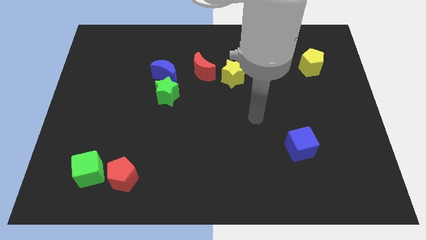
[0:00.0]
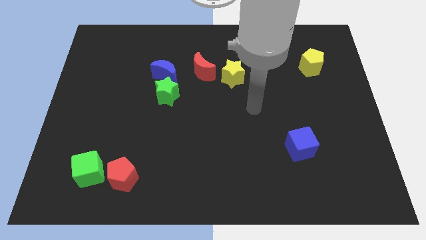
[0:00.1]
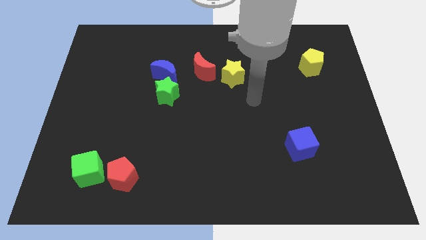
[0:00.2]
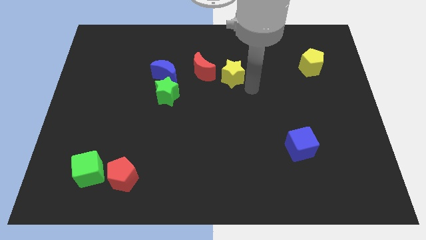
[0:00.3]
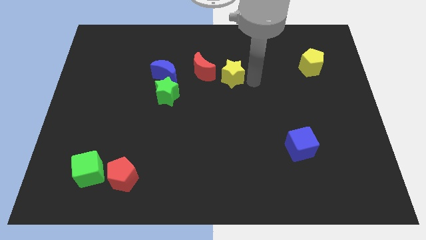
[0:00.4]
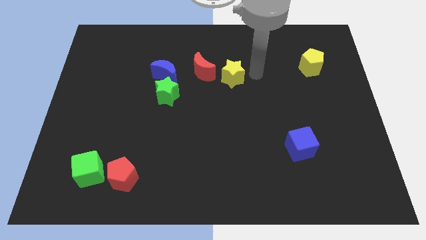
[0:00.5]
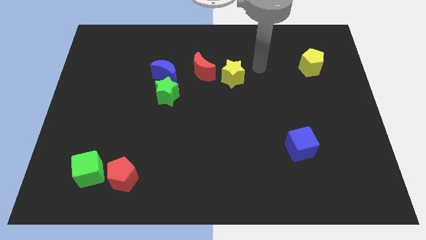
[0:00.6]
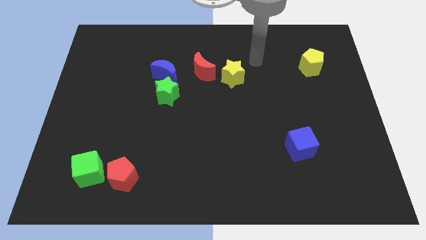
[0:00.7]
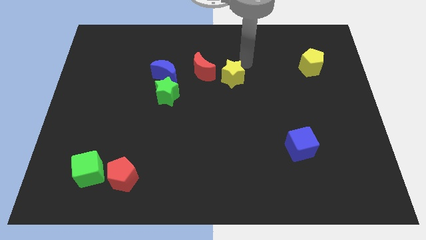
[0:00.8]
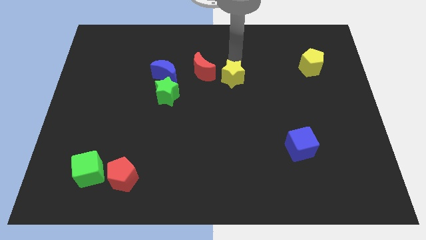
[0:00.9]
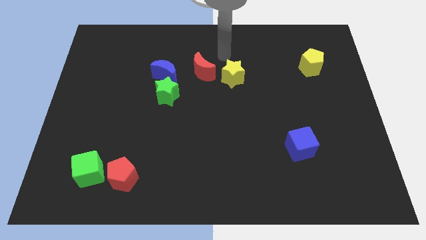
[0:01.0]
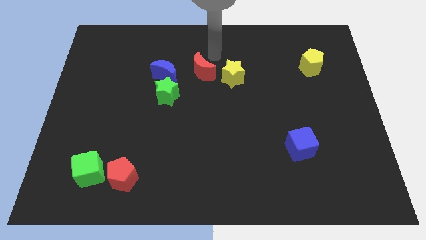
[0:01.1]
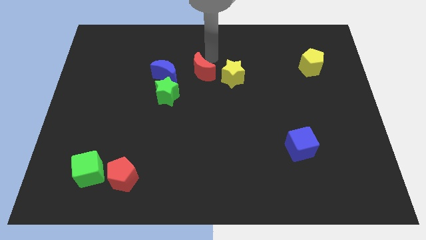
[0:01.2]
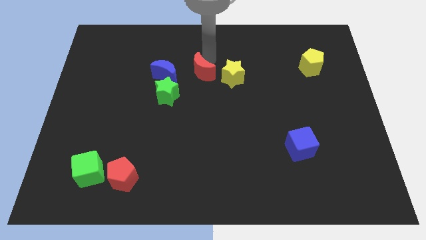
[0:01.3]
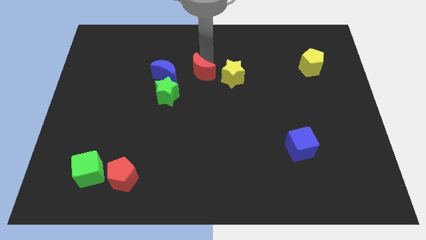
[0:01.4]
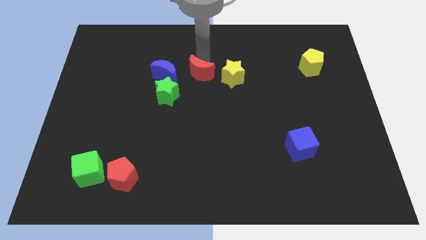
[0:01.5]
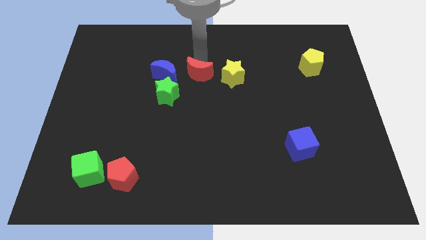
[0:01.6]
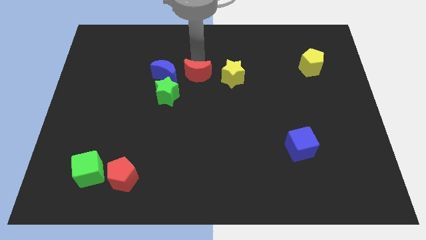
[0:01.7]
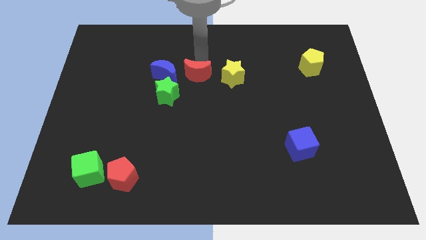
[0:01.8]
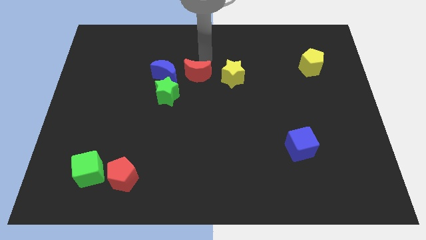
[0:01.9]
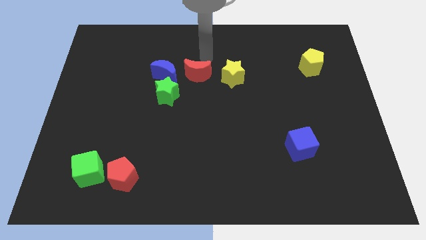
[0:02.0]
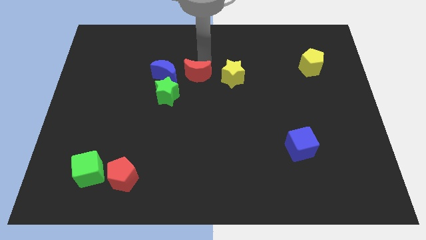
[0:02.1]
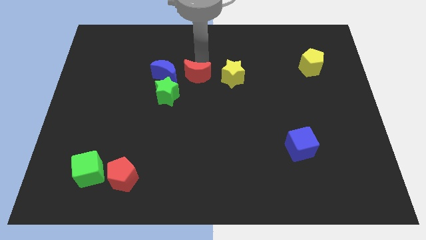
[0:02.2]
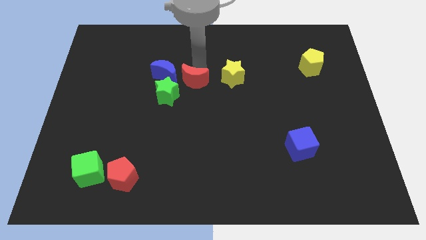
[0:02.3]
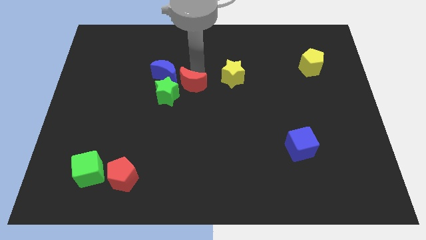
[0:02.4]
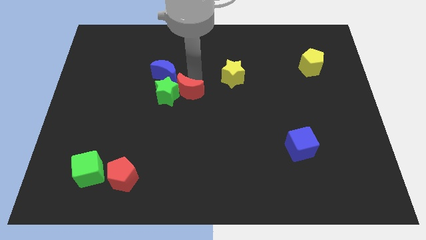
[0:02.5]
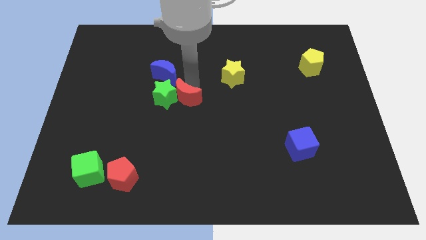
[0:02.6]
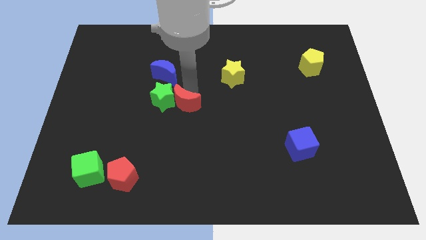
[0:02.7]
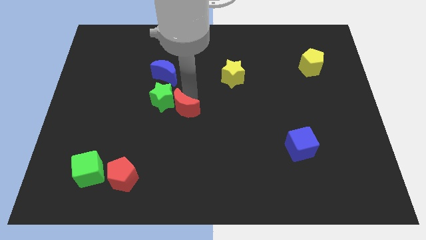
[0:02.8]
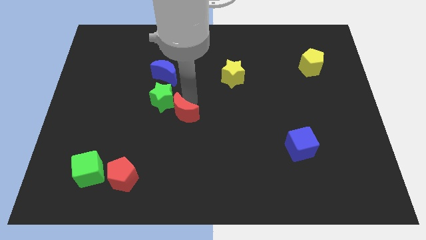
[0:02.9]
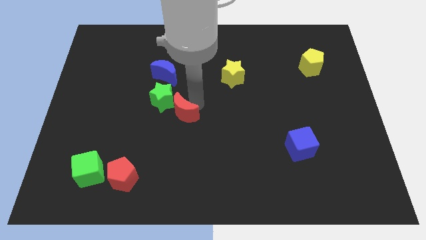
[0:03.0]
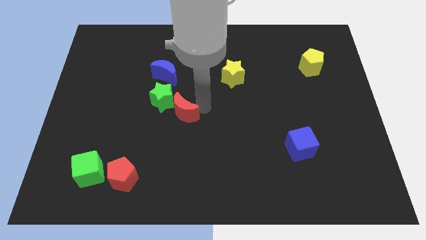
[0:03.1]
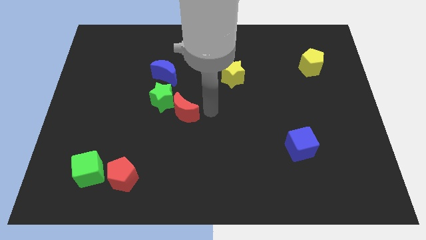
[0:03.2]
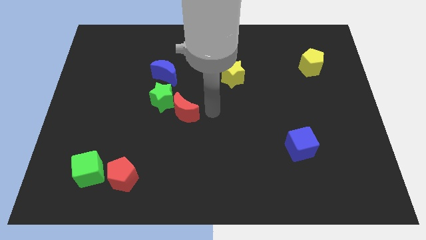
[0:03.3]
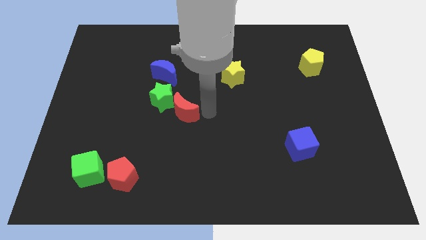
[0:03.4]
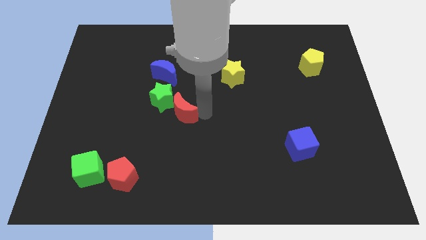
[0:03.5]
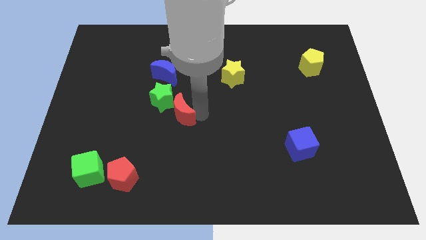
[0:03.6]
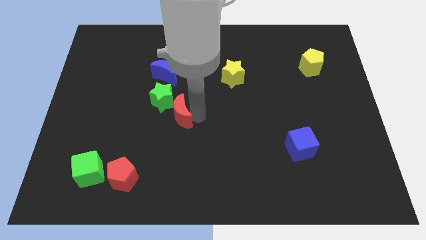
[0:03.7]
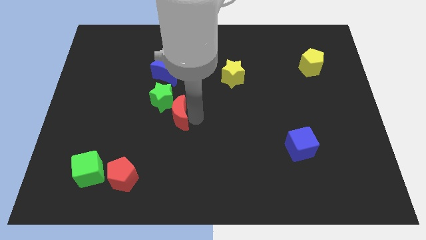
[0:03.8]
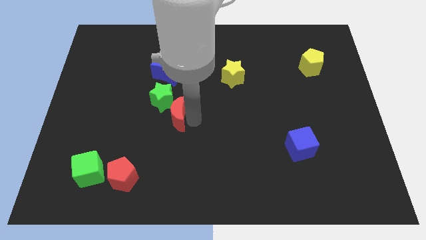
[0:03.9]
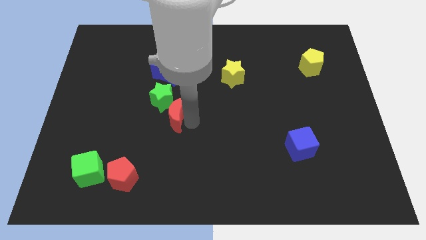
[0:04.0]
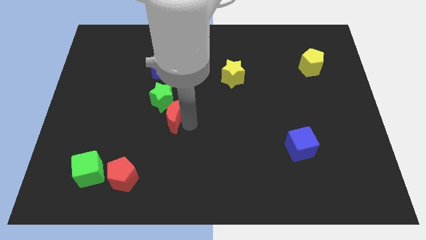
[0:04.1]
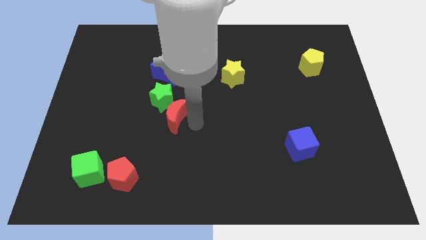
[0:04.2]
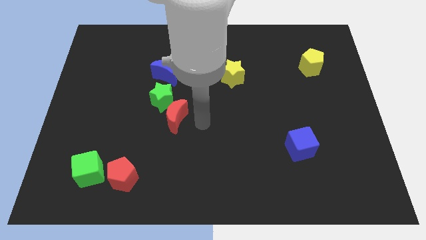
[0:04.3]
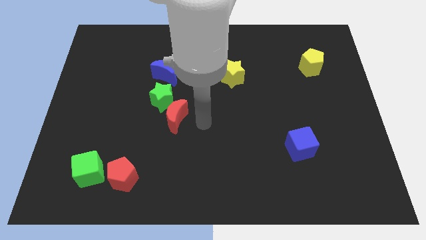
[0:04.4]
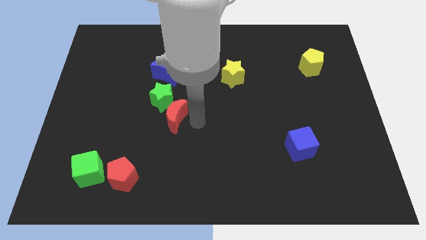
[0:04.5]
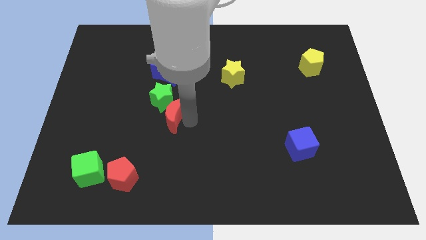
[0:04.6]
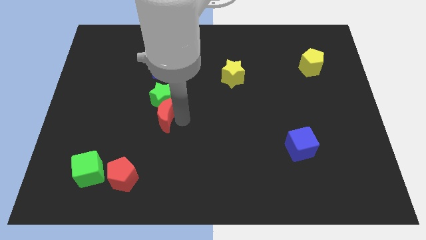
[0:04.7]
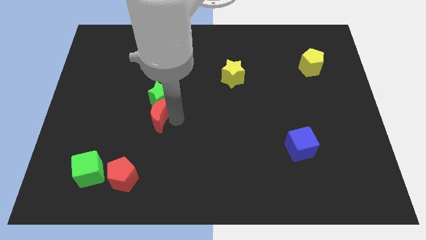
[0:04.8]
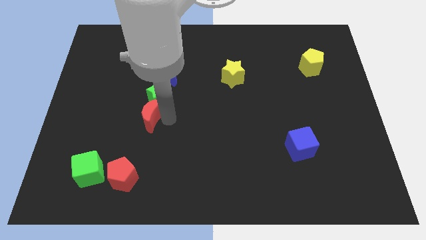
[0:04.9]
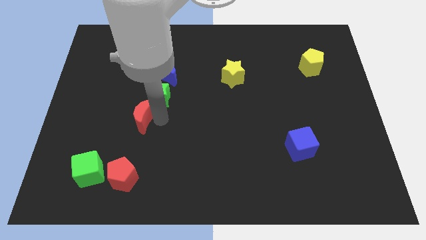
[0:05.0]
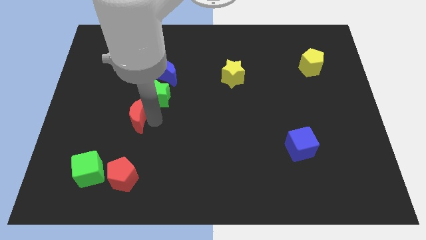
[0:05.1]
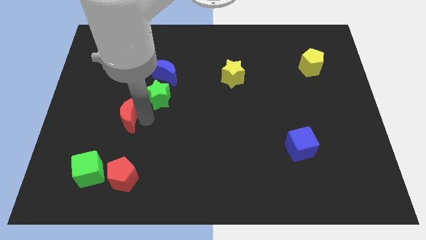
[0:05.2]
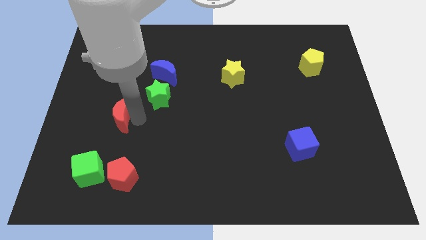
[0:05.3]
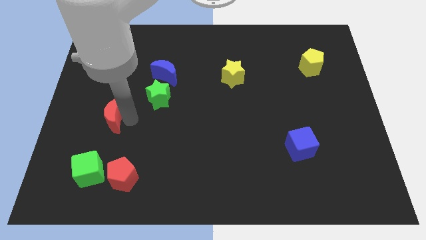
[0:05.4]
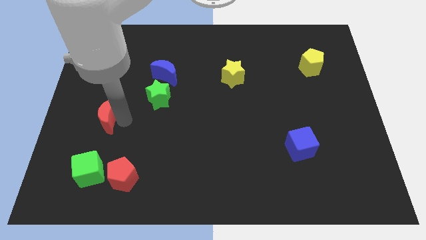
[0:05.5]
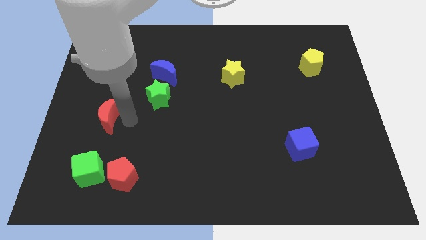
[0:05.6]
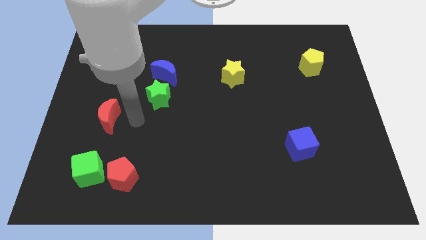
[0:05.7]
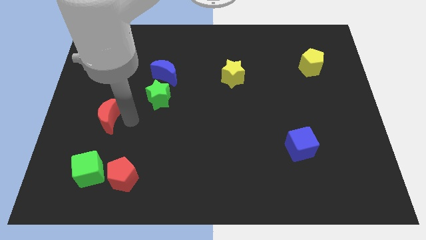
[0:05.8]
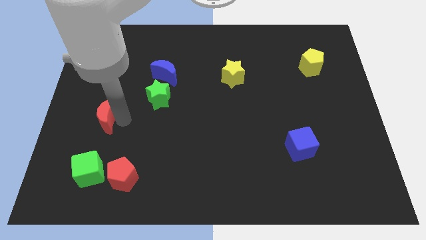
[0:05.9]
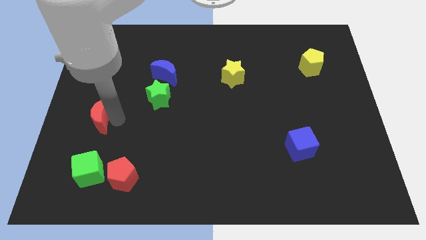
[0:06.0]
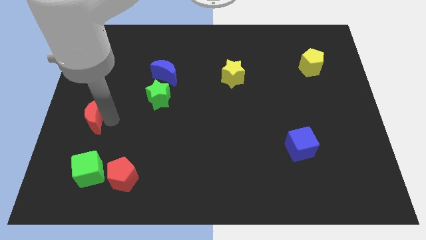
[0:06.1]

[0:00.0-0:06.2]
push the red moon to the left side
